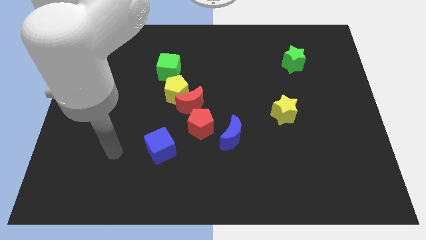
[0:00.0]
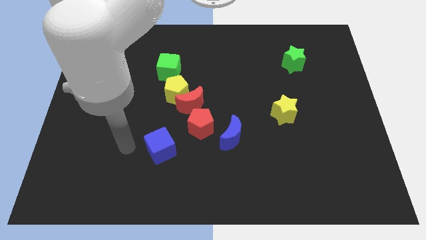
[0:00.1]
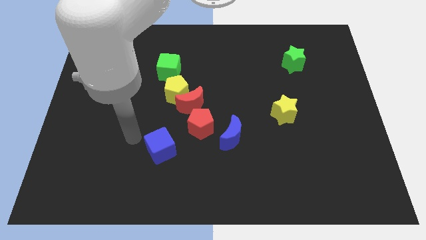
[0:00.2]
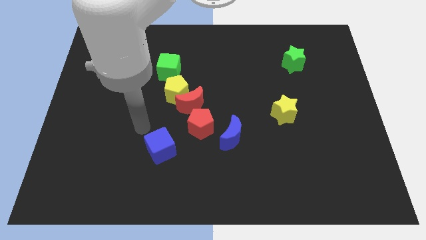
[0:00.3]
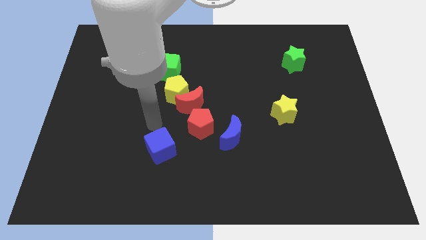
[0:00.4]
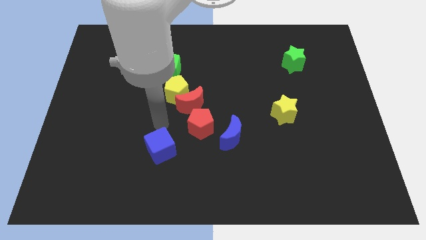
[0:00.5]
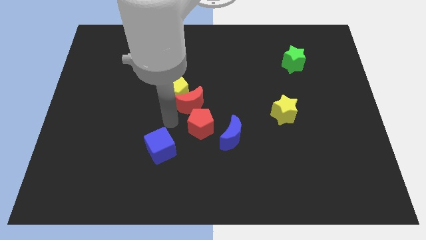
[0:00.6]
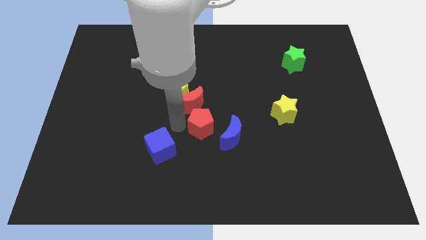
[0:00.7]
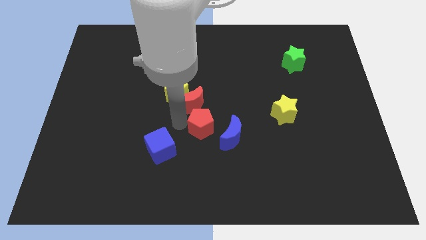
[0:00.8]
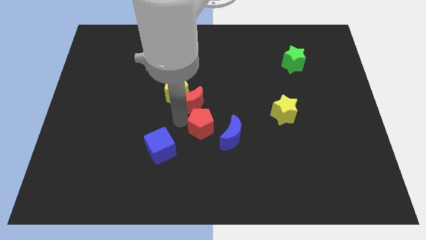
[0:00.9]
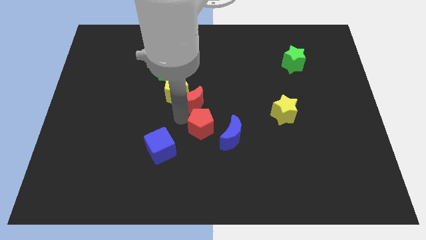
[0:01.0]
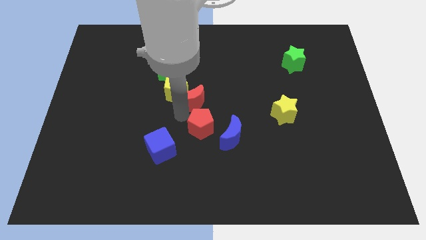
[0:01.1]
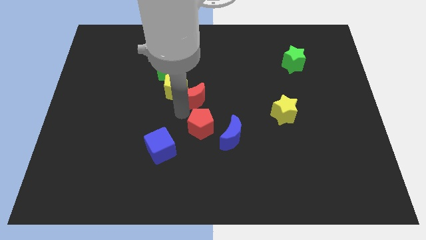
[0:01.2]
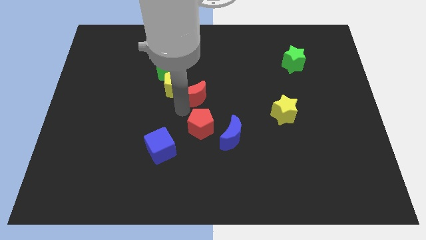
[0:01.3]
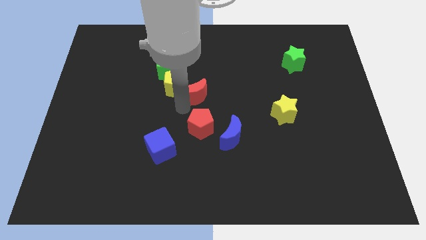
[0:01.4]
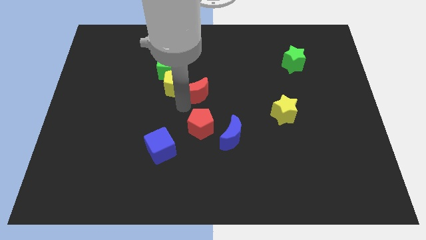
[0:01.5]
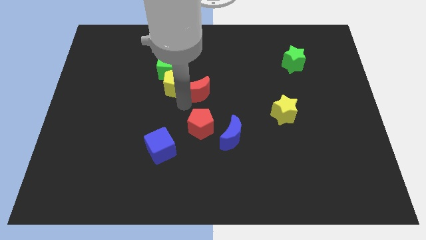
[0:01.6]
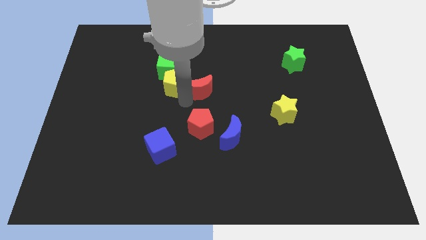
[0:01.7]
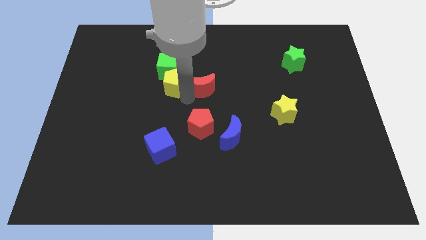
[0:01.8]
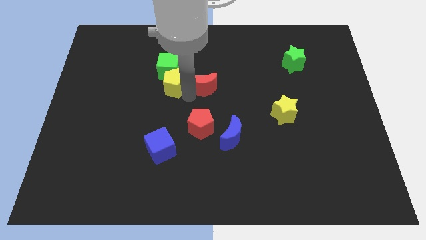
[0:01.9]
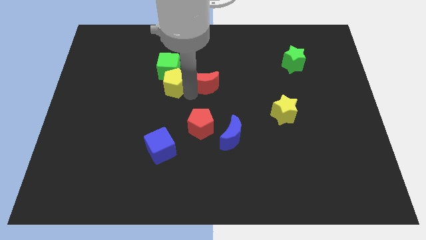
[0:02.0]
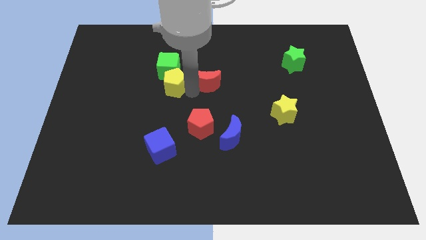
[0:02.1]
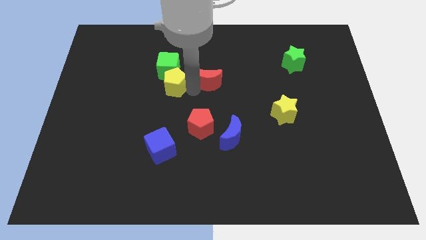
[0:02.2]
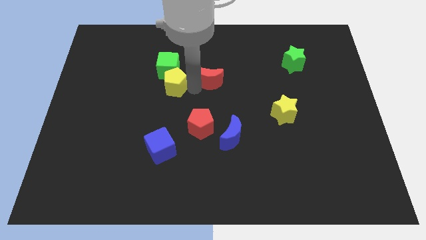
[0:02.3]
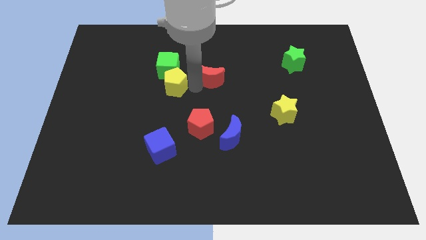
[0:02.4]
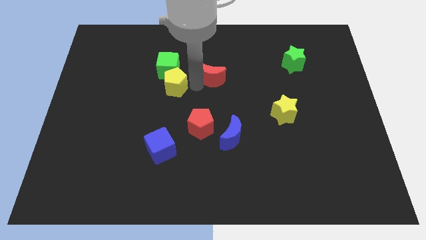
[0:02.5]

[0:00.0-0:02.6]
separate the red moon from the yellow pentagon and red pentagon

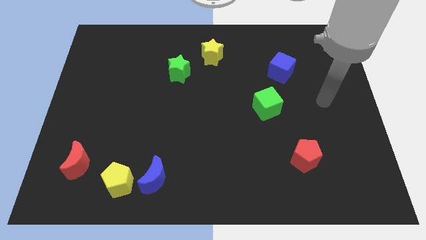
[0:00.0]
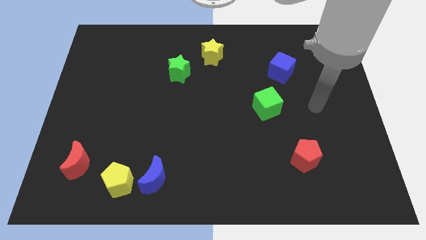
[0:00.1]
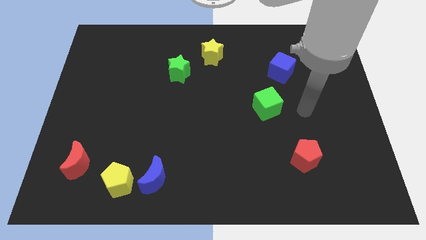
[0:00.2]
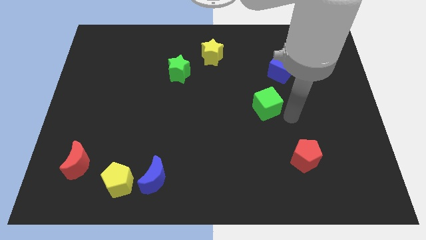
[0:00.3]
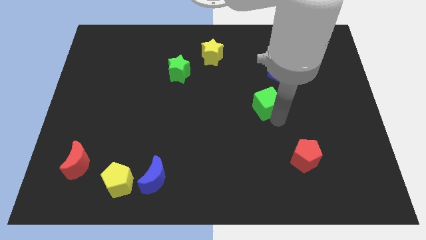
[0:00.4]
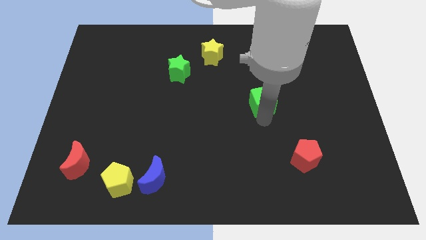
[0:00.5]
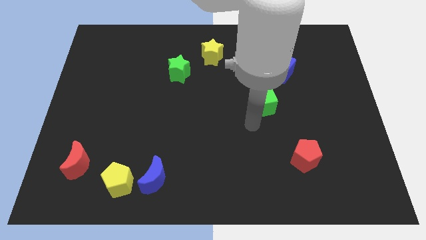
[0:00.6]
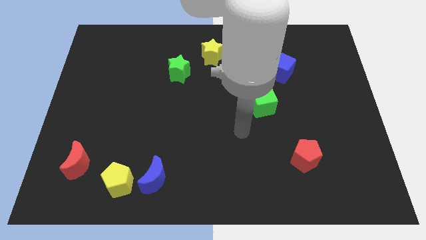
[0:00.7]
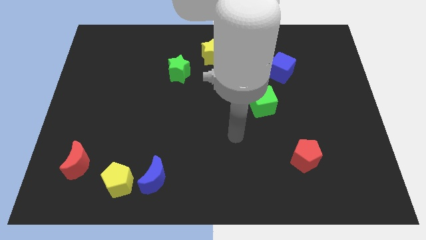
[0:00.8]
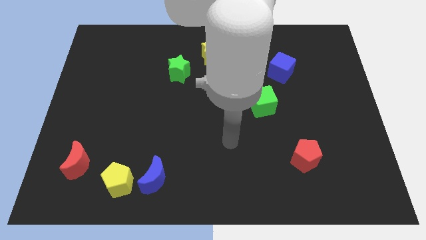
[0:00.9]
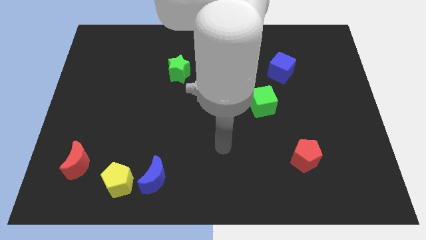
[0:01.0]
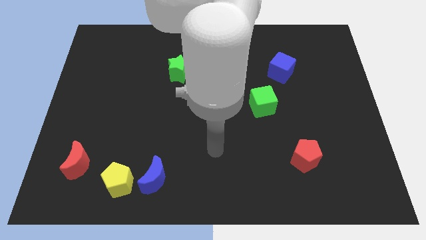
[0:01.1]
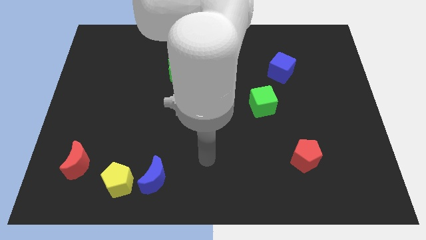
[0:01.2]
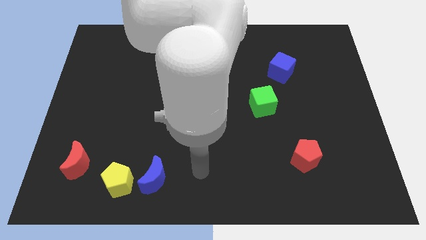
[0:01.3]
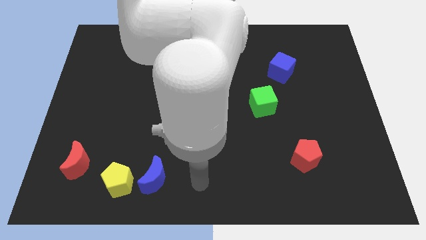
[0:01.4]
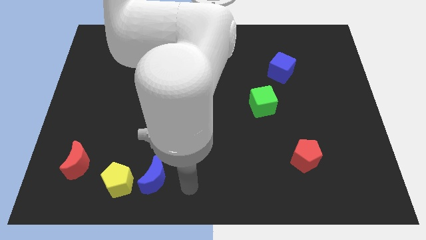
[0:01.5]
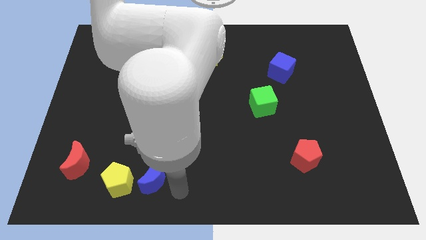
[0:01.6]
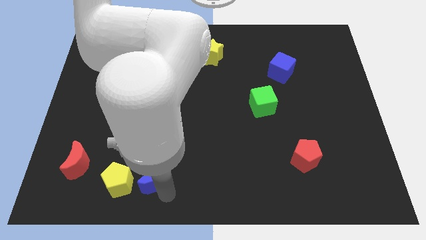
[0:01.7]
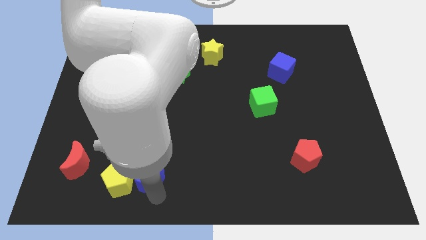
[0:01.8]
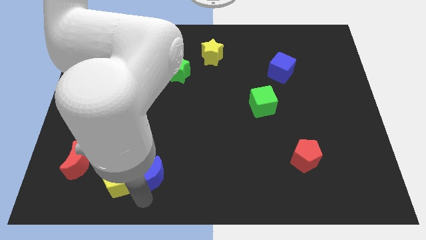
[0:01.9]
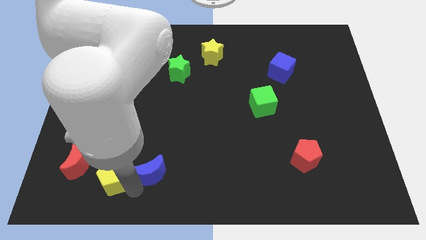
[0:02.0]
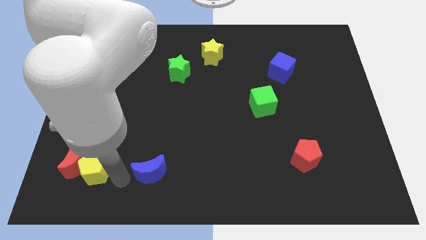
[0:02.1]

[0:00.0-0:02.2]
move the blue moon away from the yellow pentagon

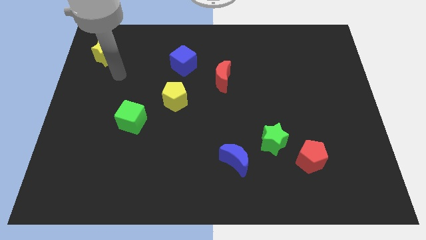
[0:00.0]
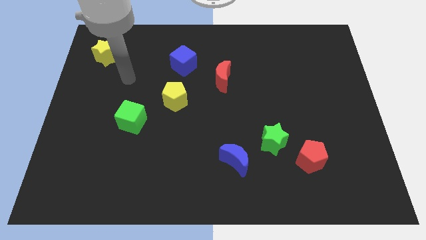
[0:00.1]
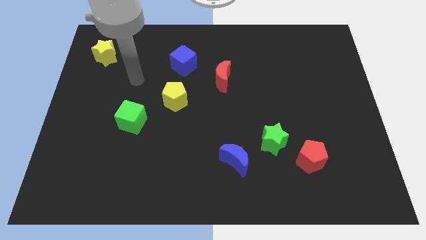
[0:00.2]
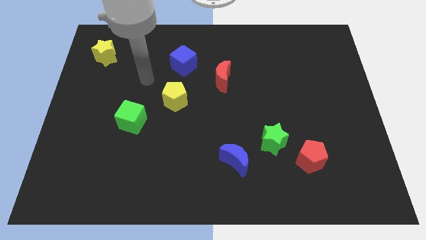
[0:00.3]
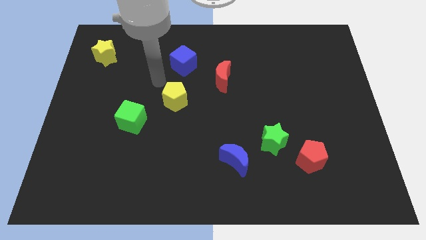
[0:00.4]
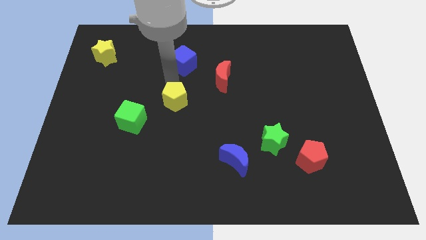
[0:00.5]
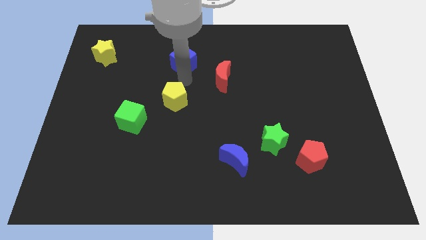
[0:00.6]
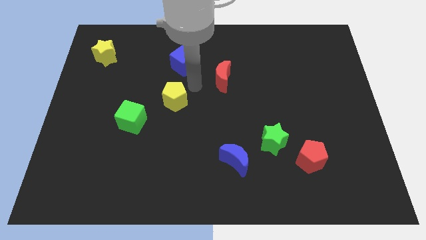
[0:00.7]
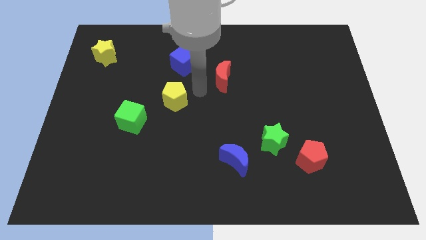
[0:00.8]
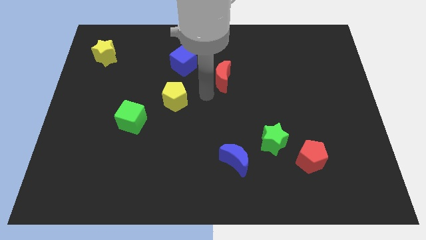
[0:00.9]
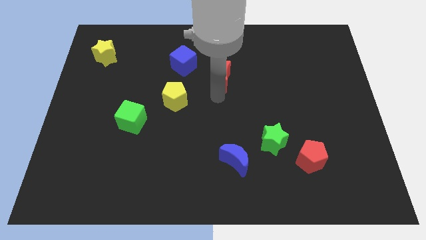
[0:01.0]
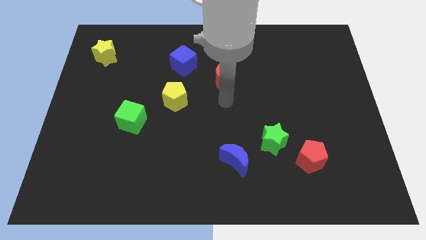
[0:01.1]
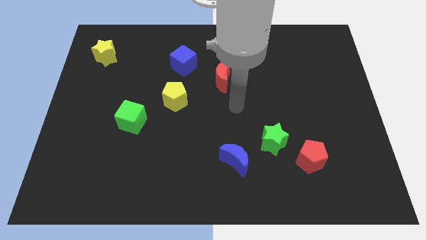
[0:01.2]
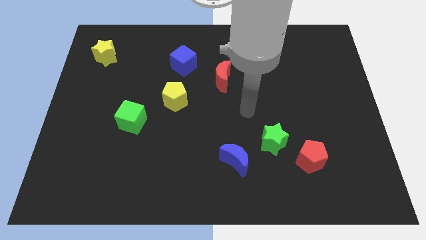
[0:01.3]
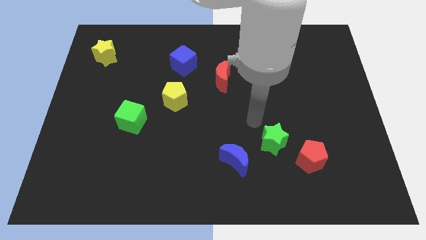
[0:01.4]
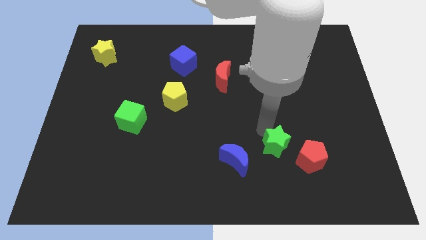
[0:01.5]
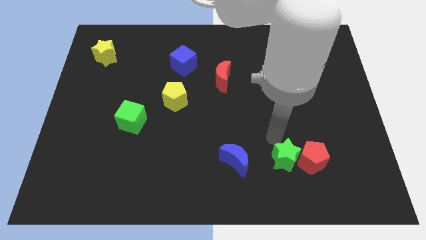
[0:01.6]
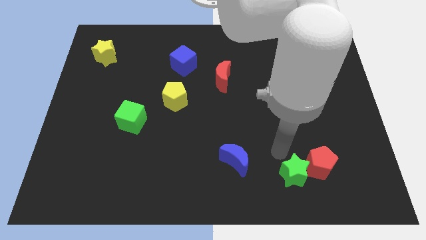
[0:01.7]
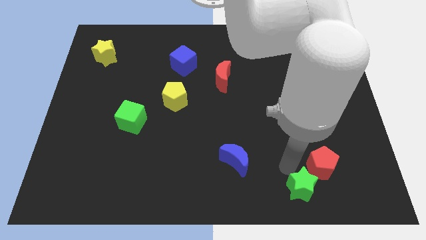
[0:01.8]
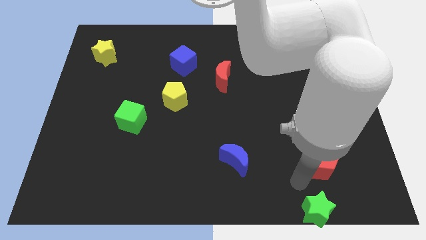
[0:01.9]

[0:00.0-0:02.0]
pull the red pentagon apart from the green star

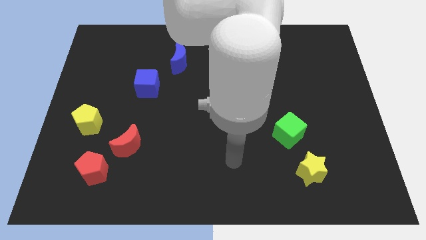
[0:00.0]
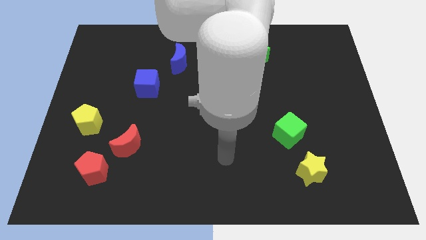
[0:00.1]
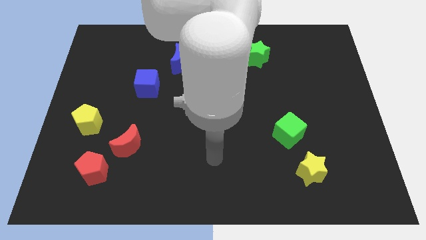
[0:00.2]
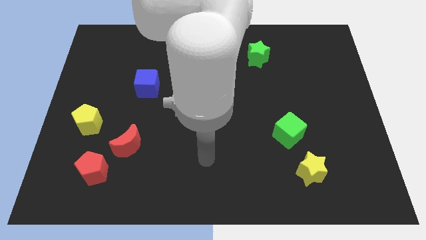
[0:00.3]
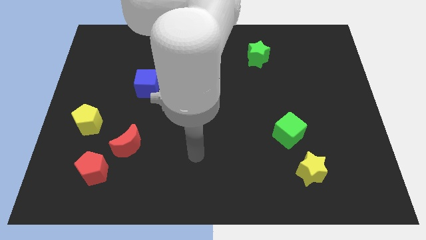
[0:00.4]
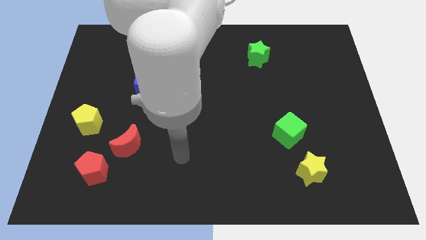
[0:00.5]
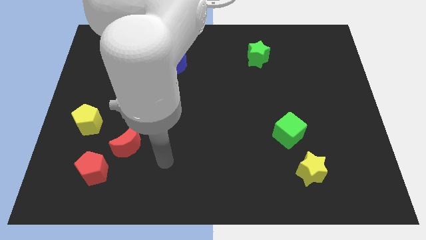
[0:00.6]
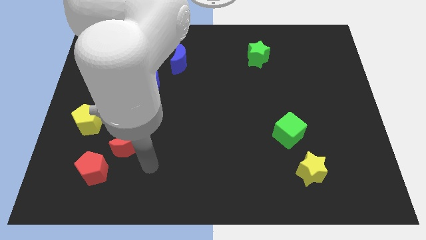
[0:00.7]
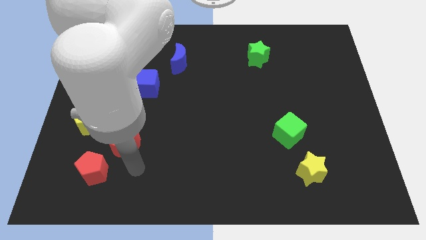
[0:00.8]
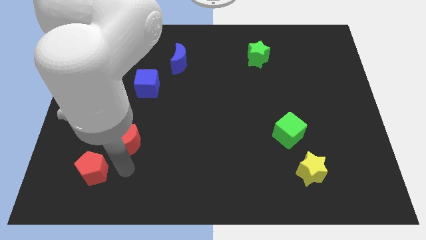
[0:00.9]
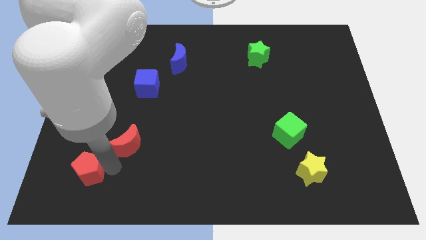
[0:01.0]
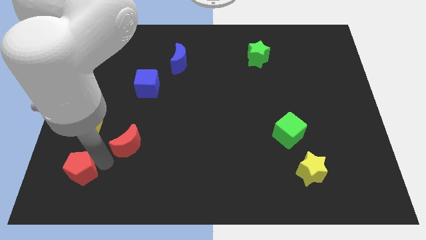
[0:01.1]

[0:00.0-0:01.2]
separate the red moon from the red pentagon

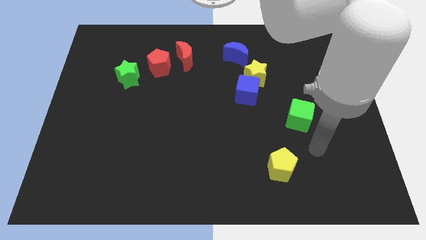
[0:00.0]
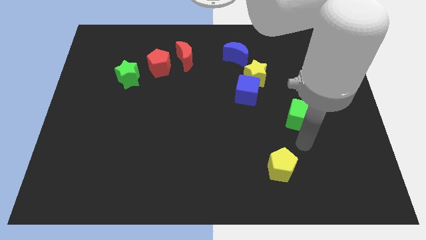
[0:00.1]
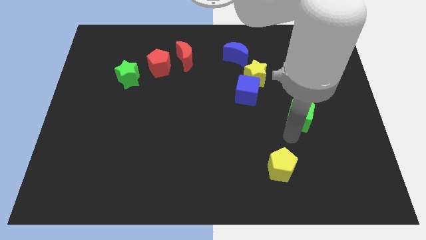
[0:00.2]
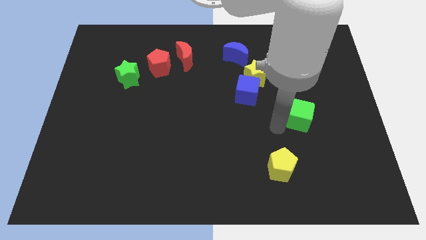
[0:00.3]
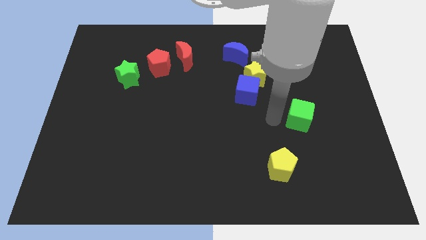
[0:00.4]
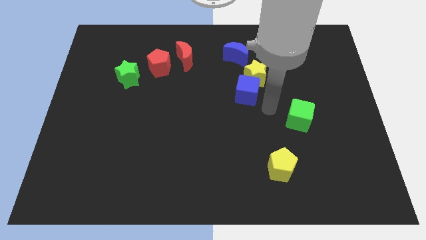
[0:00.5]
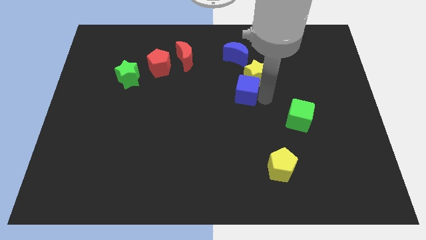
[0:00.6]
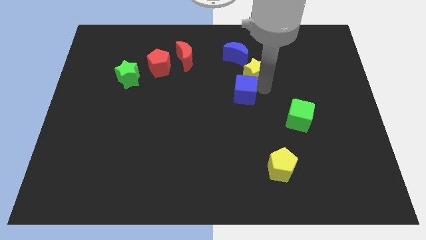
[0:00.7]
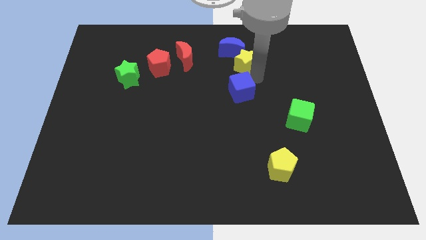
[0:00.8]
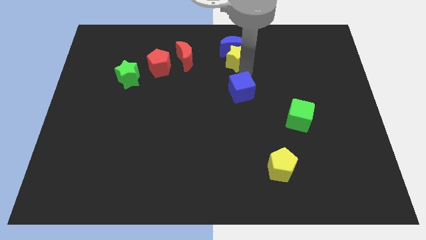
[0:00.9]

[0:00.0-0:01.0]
pull the blue cube apart from the yellow star

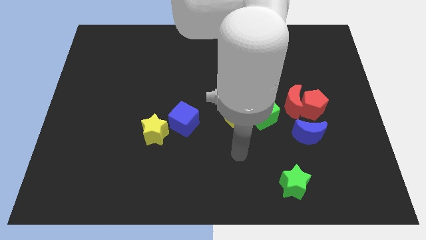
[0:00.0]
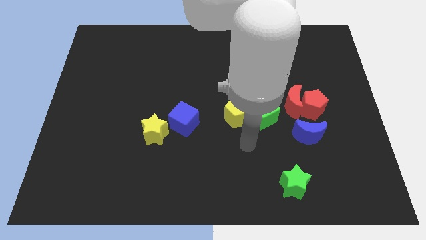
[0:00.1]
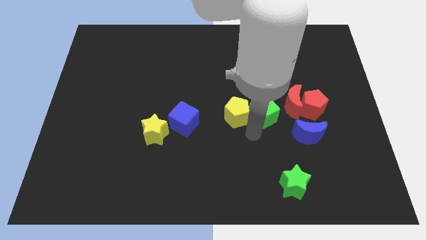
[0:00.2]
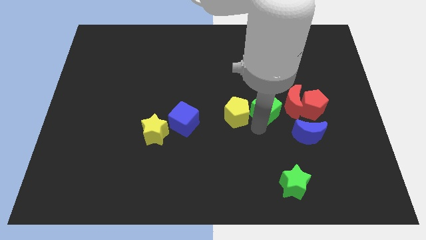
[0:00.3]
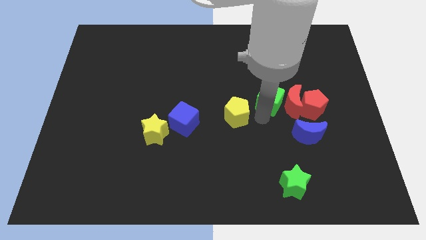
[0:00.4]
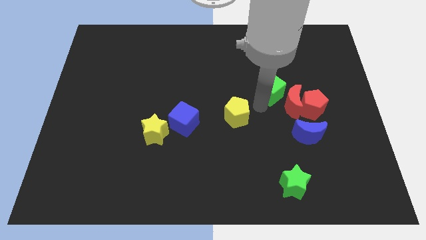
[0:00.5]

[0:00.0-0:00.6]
move the yellow pentagon away from the green cube
